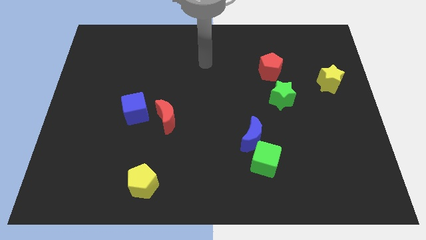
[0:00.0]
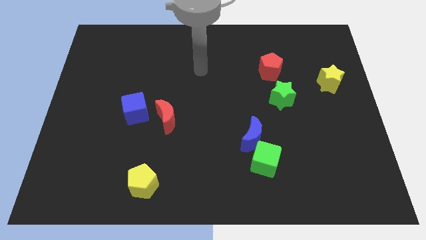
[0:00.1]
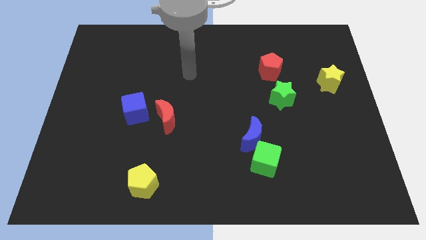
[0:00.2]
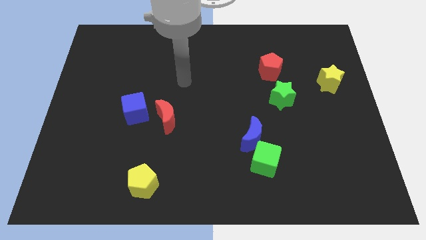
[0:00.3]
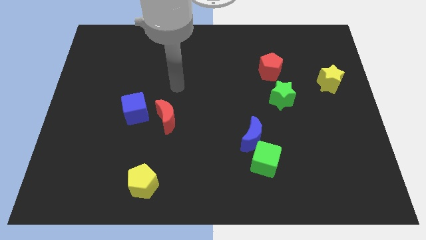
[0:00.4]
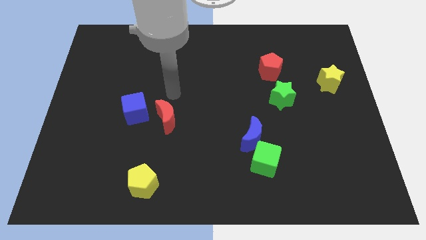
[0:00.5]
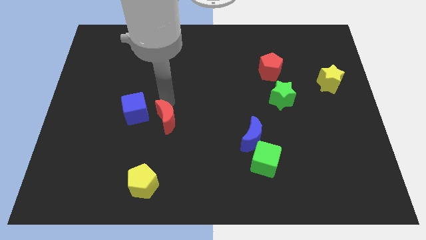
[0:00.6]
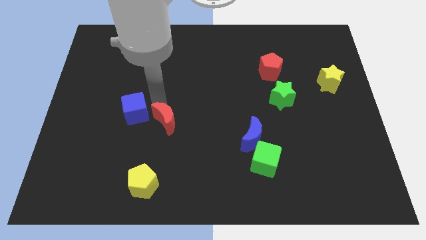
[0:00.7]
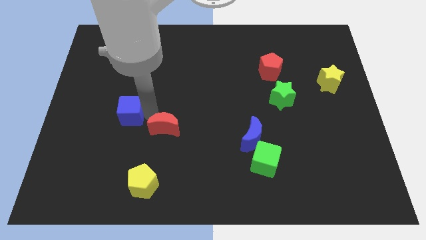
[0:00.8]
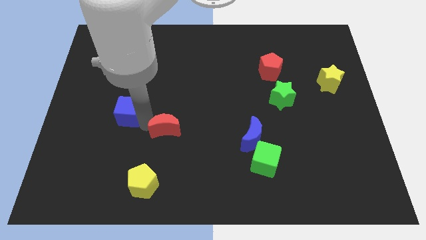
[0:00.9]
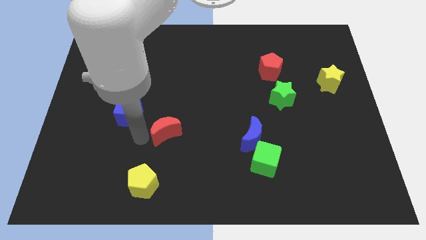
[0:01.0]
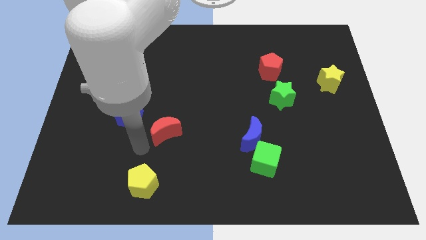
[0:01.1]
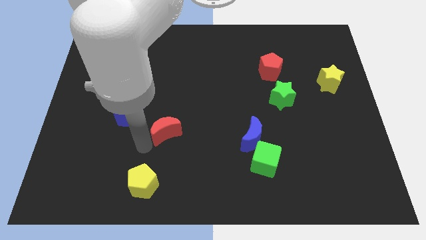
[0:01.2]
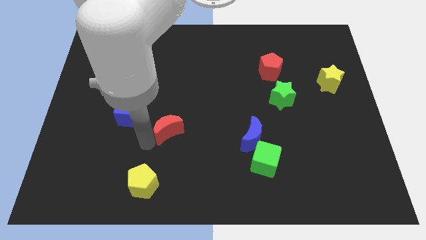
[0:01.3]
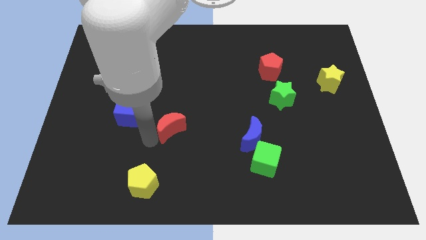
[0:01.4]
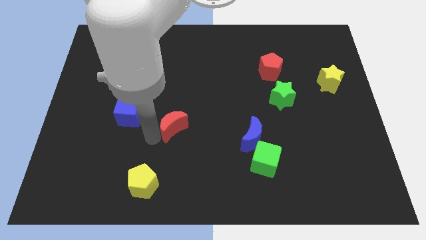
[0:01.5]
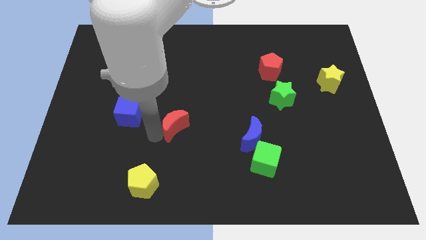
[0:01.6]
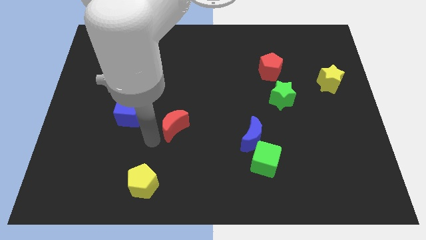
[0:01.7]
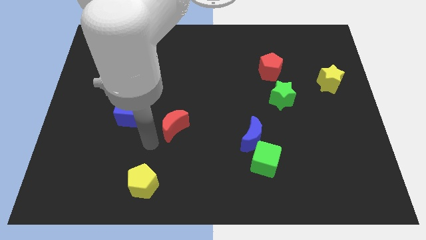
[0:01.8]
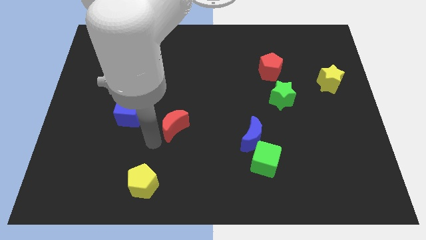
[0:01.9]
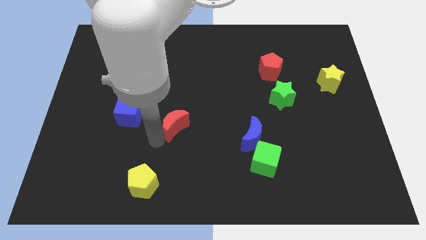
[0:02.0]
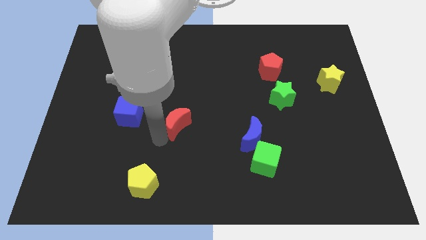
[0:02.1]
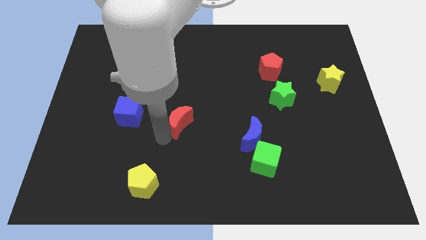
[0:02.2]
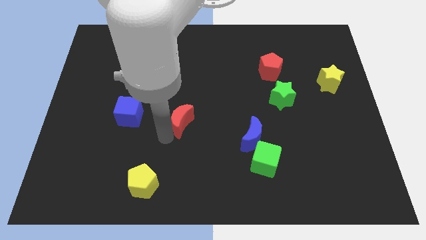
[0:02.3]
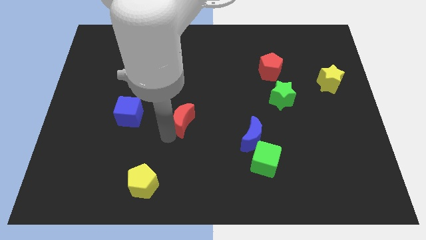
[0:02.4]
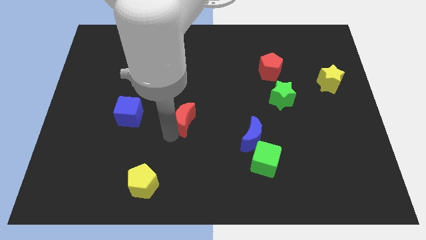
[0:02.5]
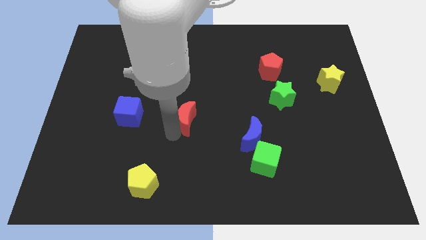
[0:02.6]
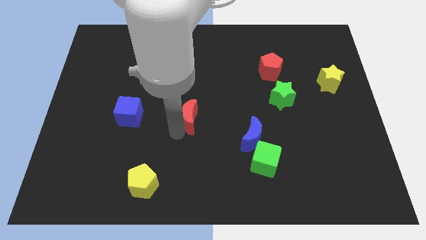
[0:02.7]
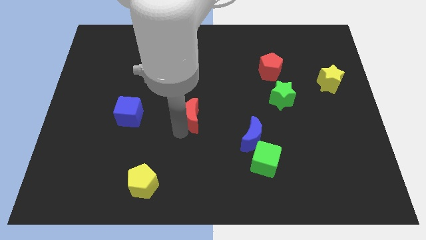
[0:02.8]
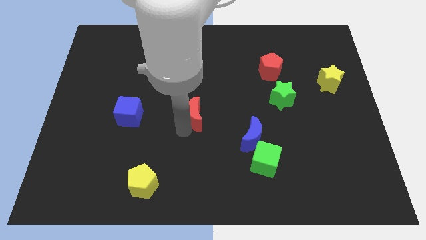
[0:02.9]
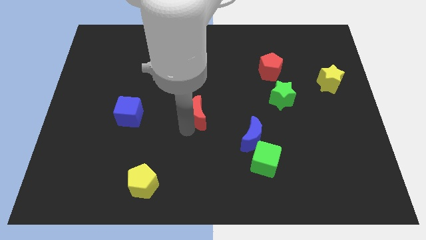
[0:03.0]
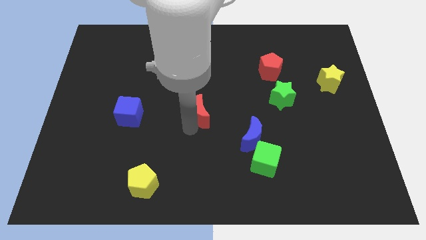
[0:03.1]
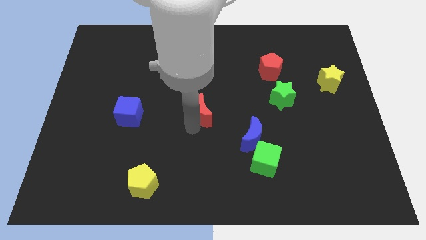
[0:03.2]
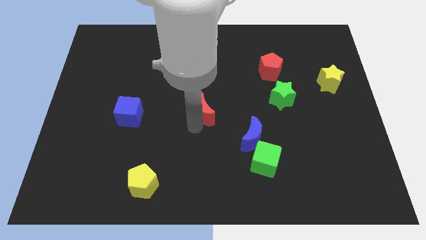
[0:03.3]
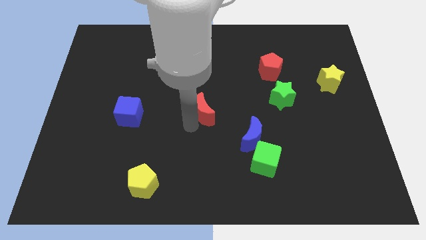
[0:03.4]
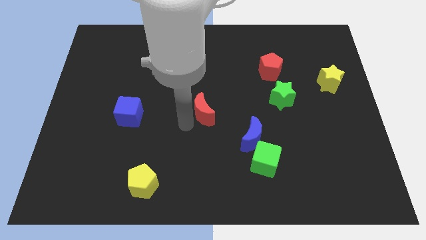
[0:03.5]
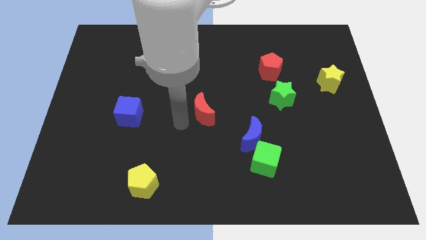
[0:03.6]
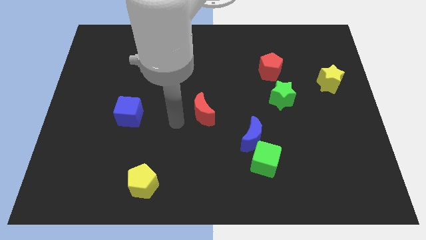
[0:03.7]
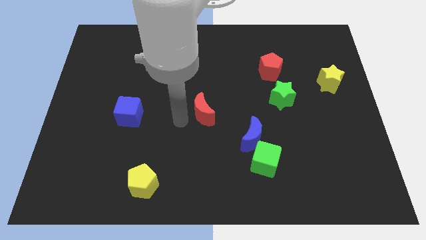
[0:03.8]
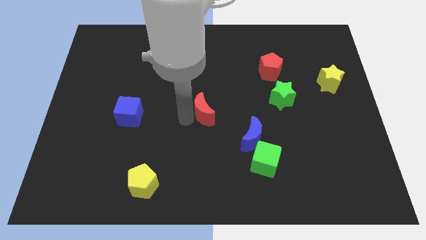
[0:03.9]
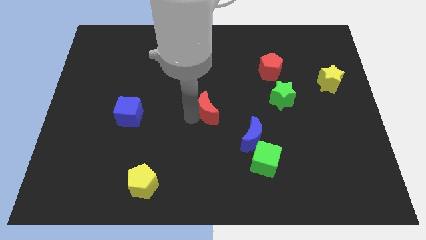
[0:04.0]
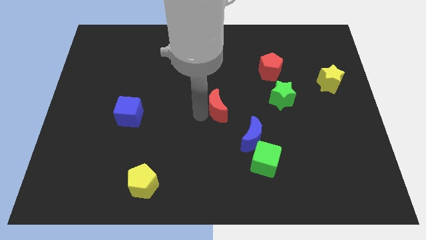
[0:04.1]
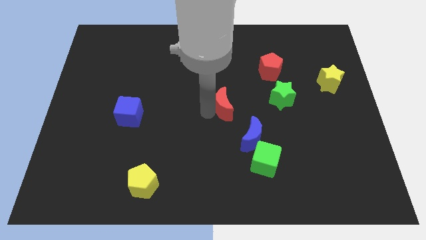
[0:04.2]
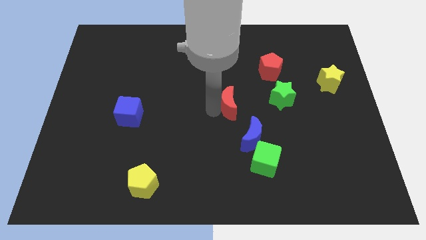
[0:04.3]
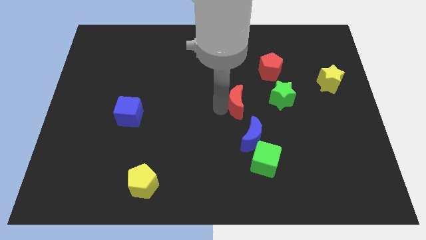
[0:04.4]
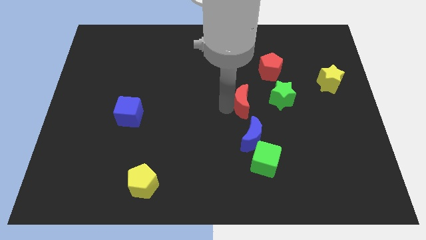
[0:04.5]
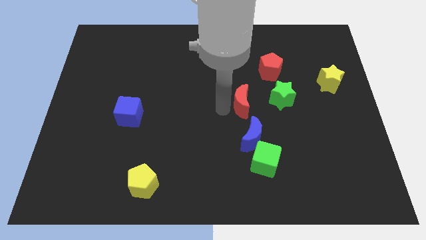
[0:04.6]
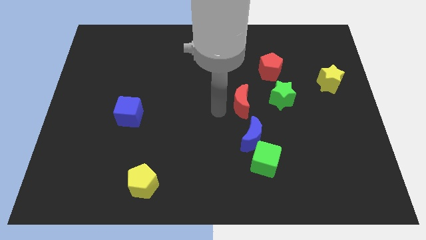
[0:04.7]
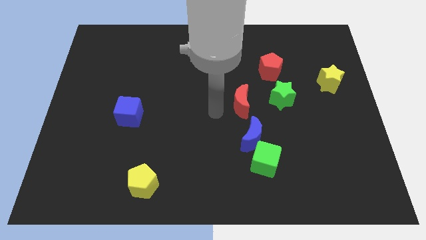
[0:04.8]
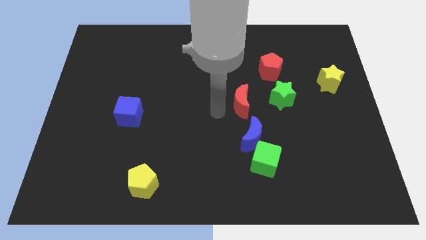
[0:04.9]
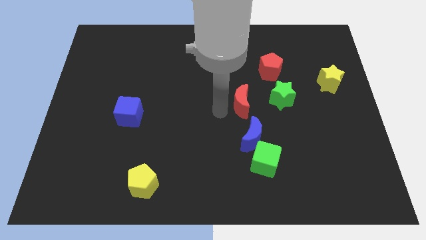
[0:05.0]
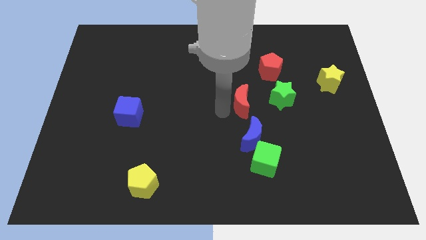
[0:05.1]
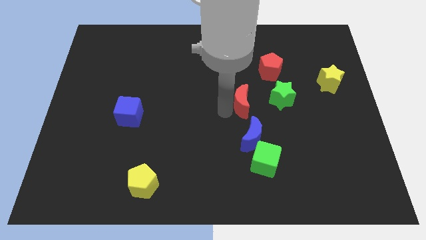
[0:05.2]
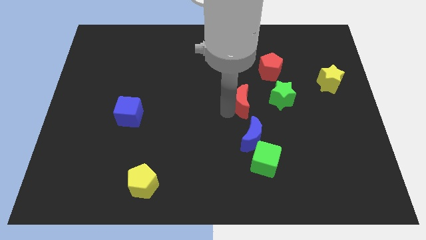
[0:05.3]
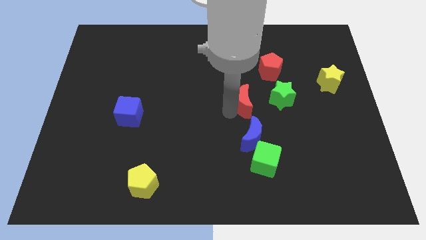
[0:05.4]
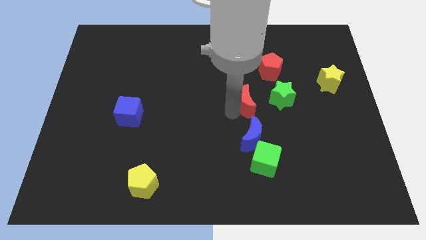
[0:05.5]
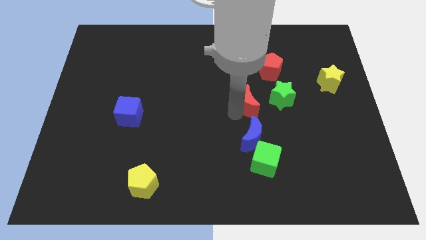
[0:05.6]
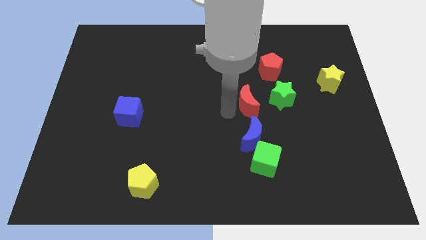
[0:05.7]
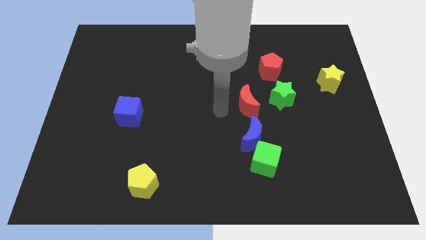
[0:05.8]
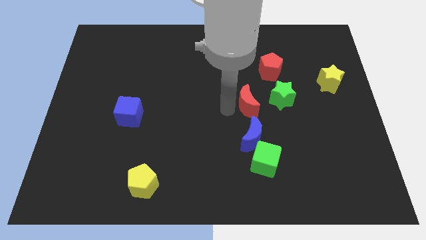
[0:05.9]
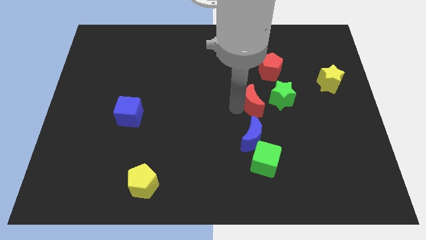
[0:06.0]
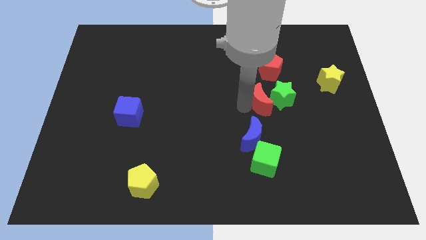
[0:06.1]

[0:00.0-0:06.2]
move the red moon towards the green star

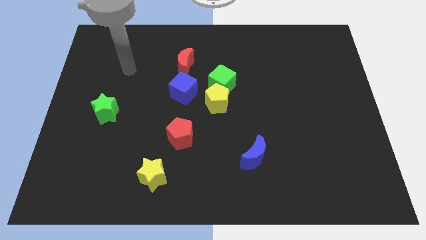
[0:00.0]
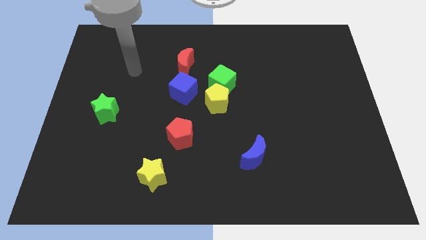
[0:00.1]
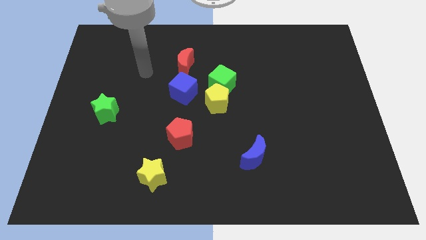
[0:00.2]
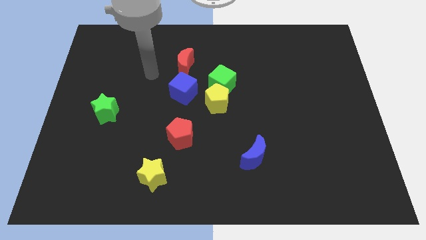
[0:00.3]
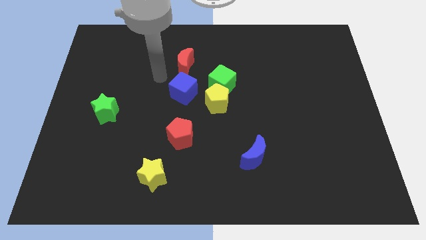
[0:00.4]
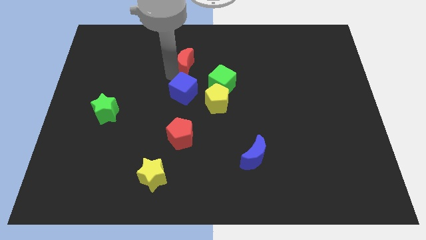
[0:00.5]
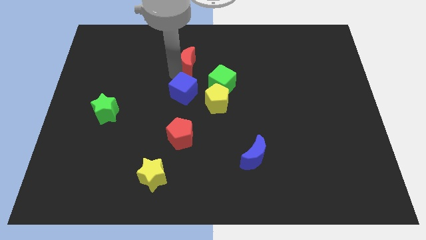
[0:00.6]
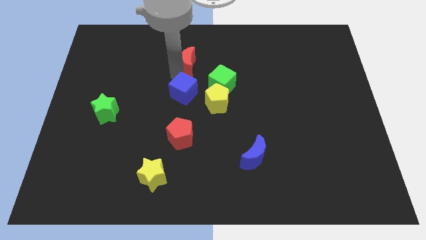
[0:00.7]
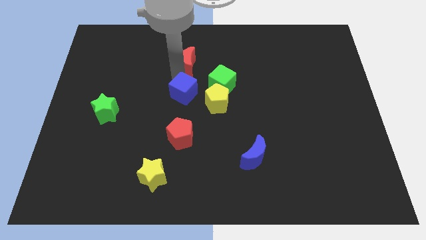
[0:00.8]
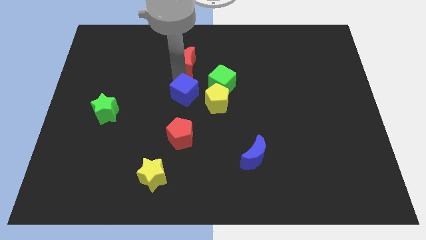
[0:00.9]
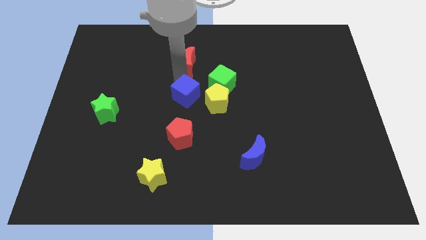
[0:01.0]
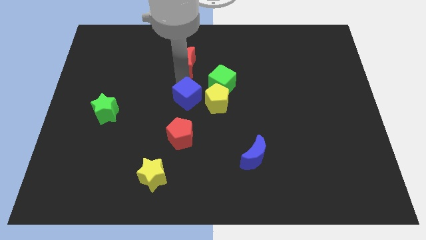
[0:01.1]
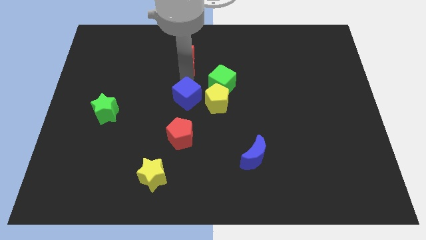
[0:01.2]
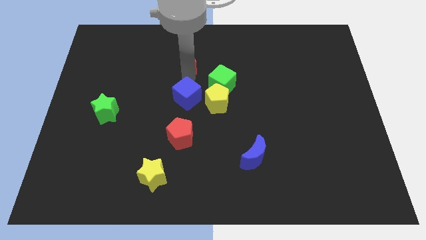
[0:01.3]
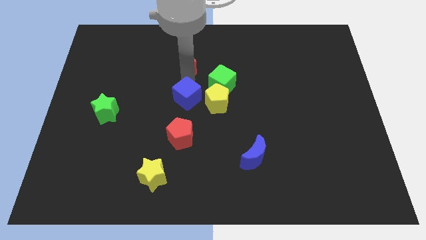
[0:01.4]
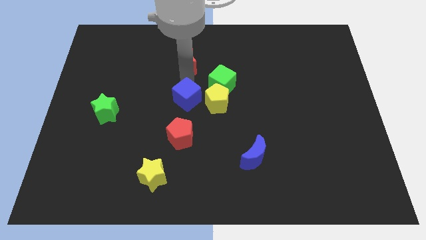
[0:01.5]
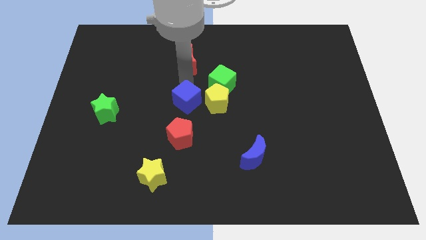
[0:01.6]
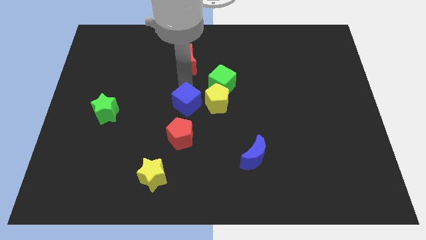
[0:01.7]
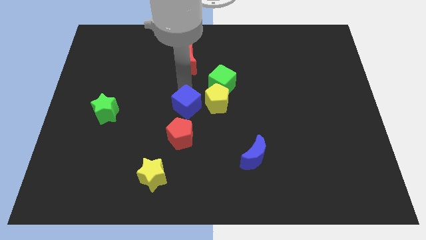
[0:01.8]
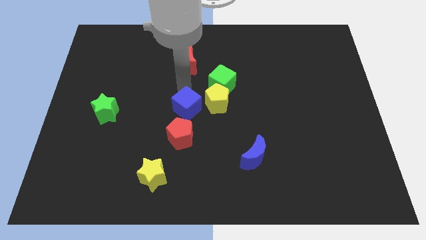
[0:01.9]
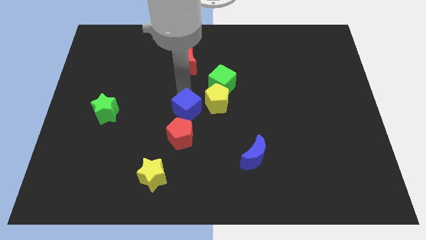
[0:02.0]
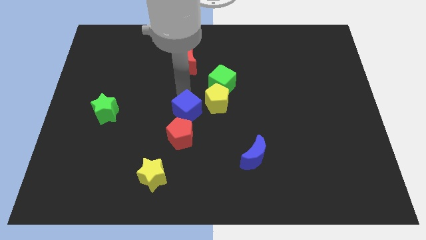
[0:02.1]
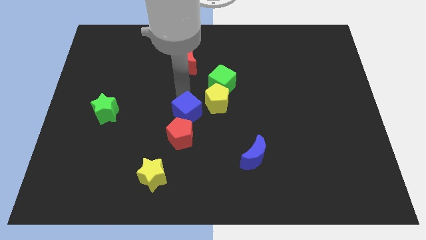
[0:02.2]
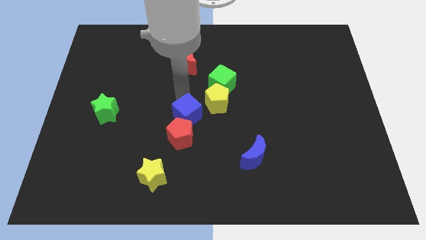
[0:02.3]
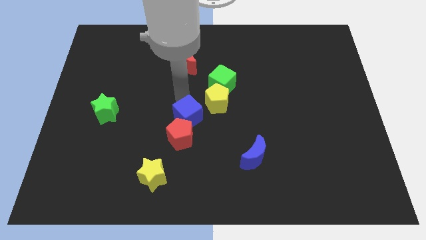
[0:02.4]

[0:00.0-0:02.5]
put the blue cube next to the red pentagon
